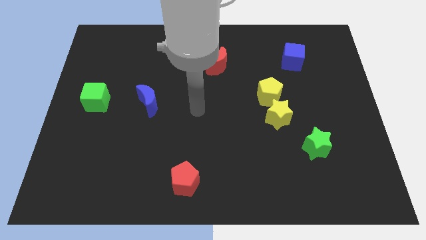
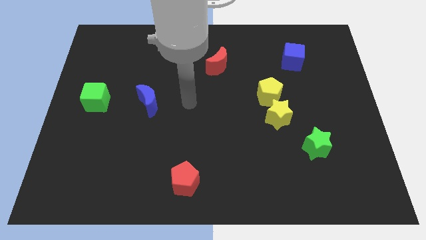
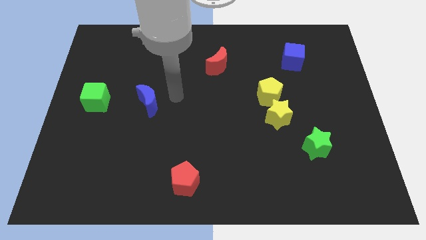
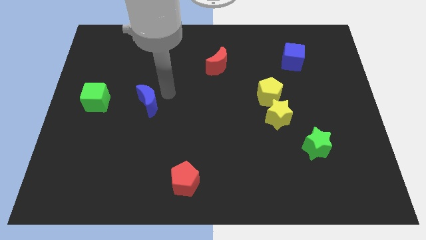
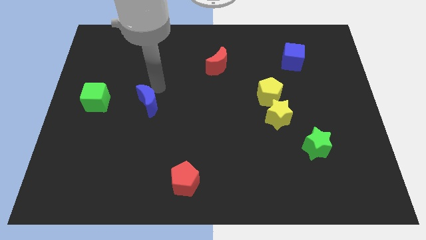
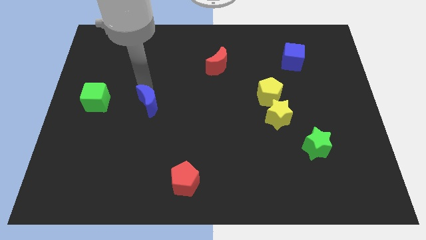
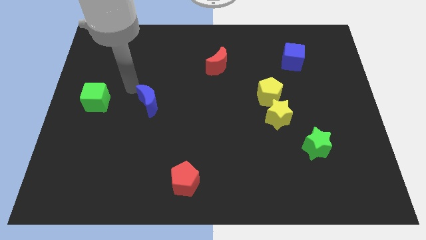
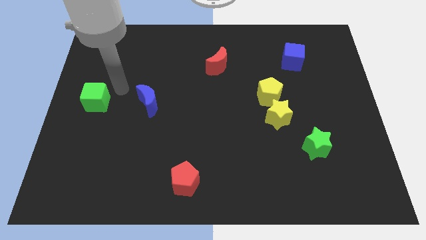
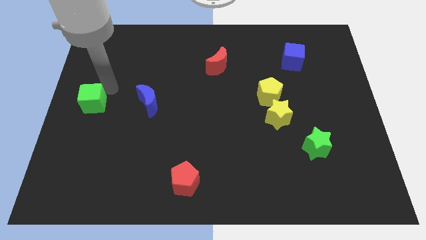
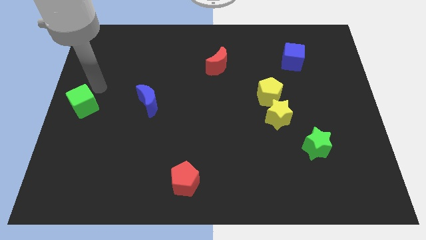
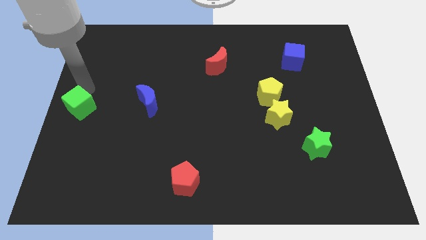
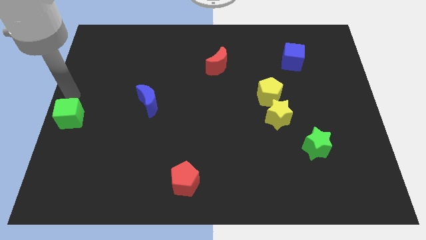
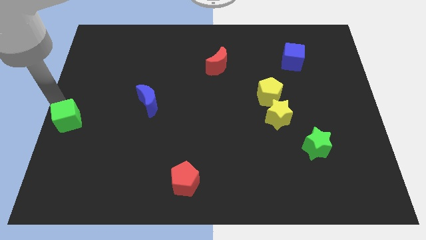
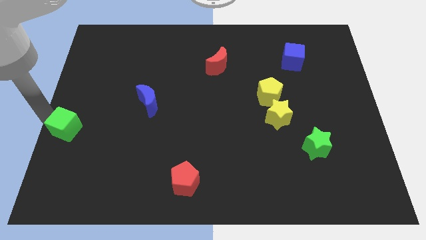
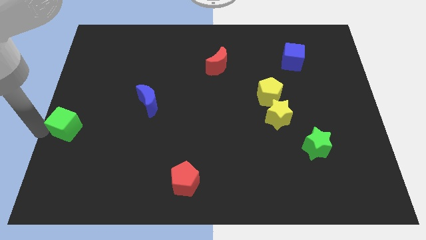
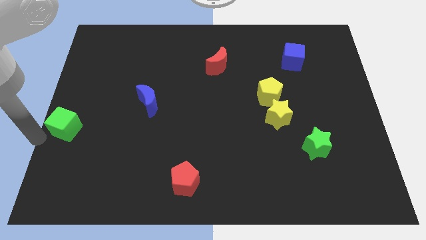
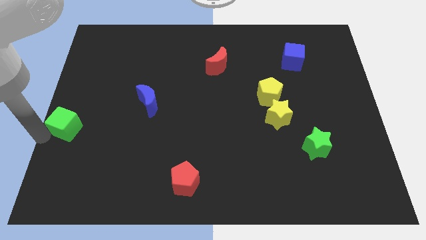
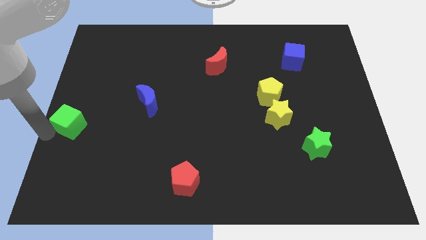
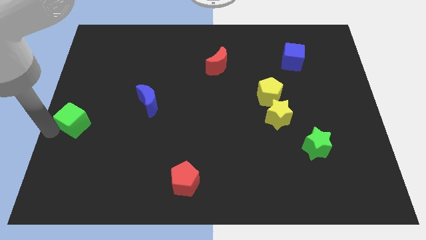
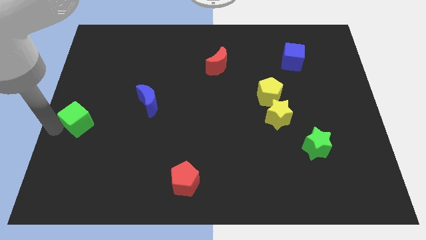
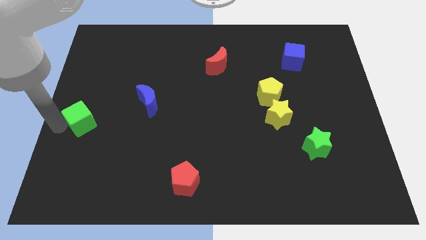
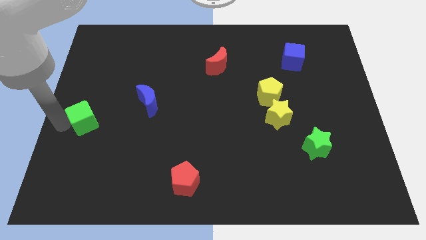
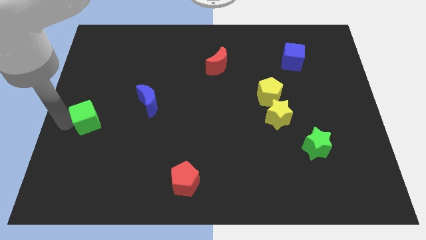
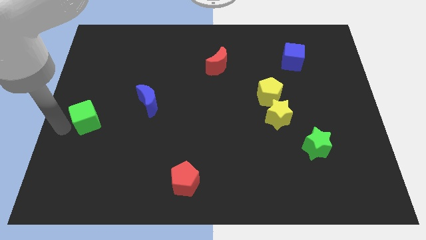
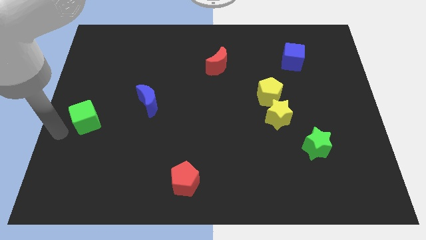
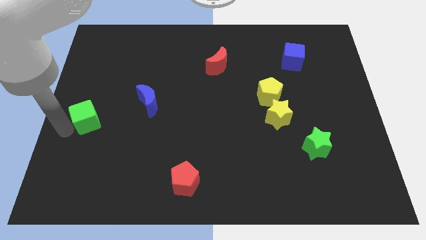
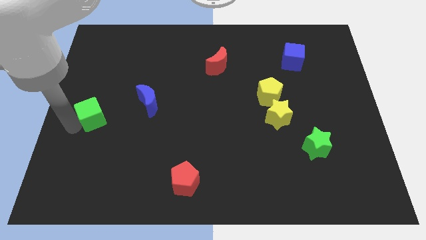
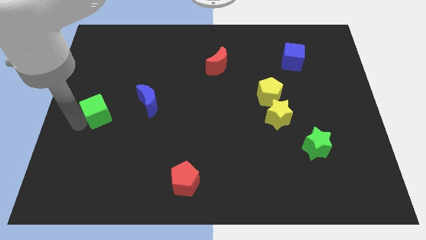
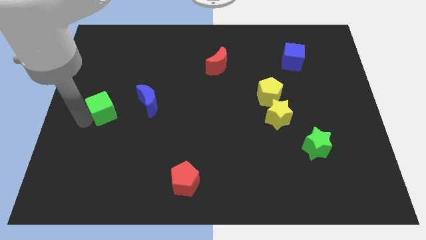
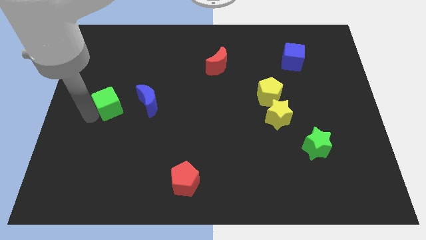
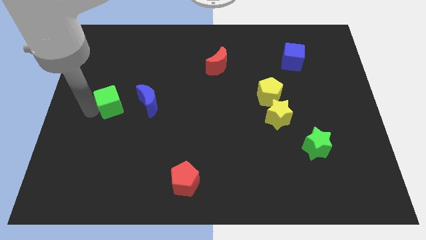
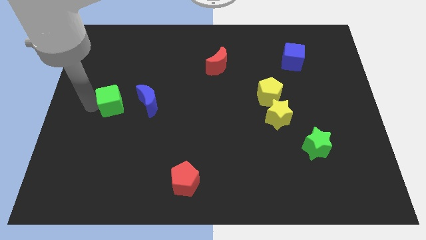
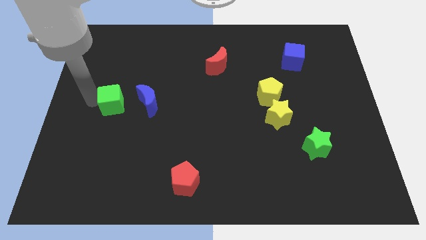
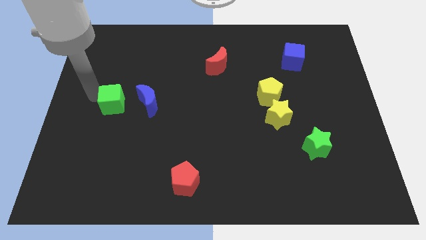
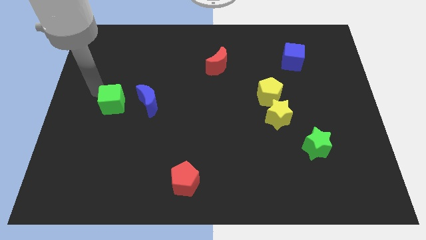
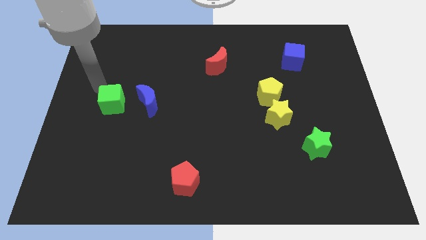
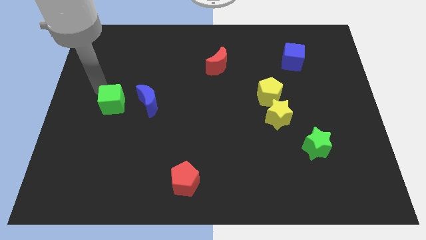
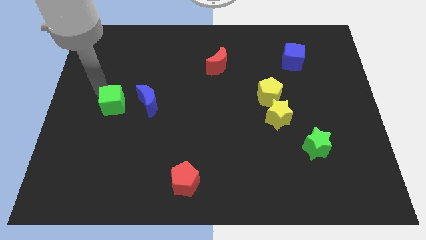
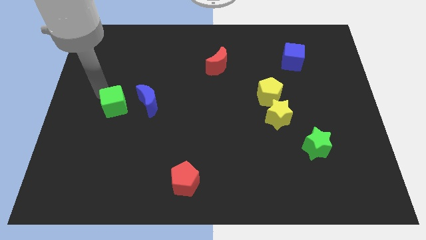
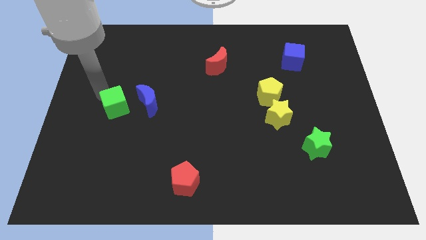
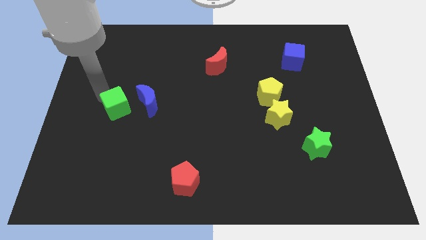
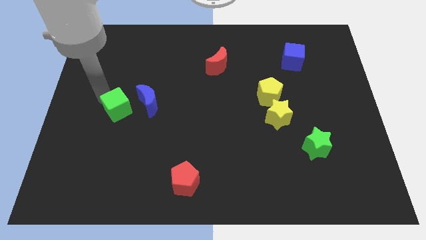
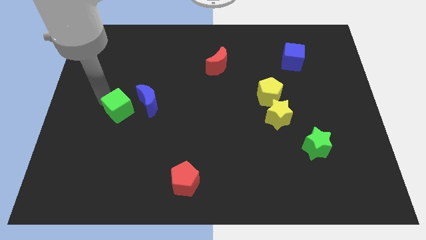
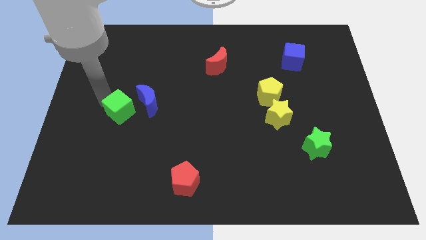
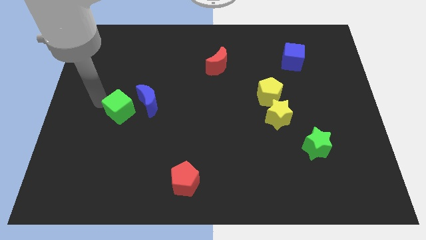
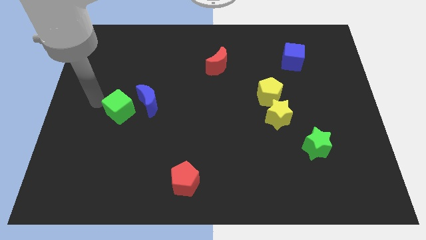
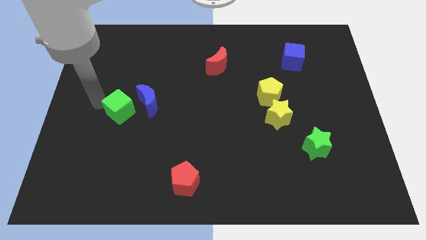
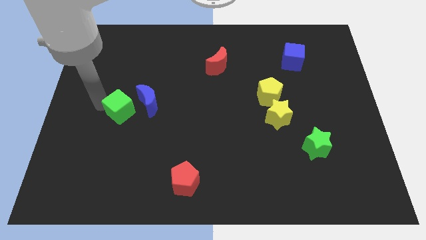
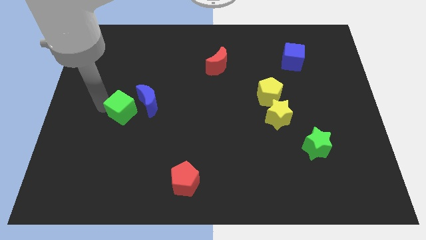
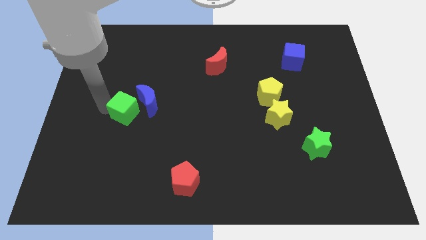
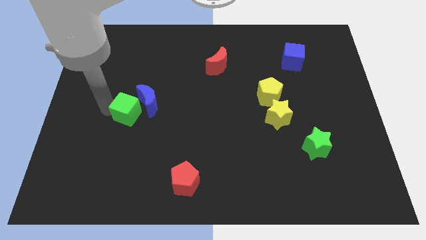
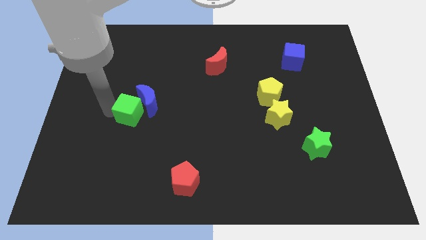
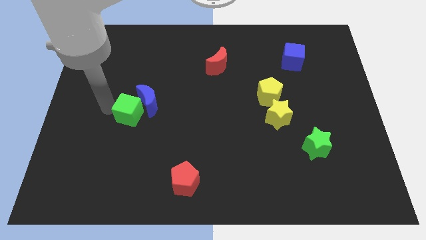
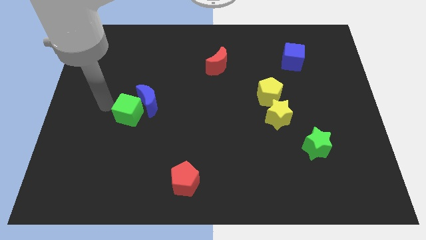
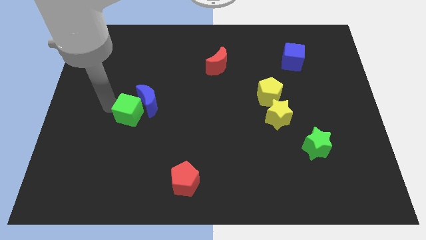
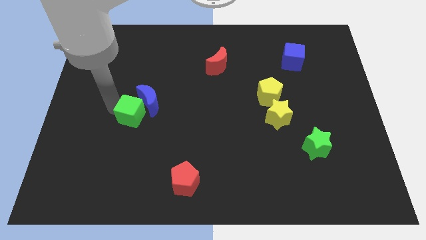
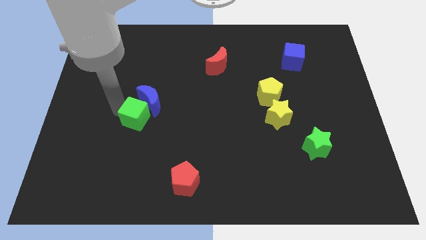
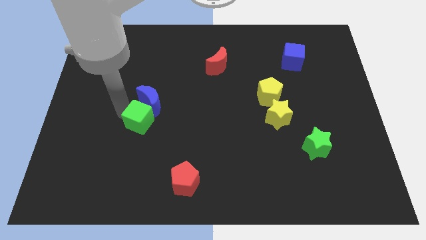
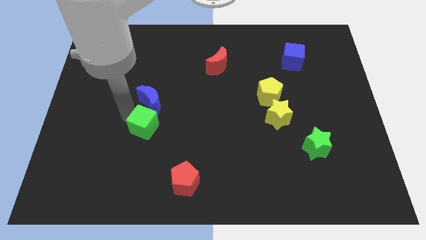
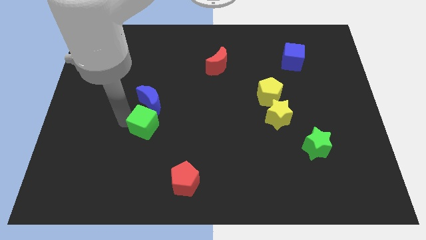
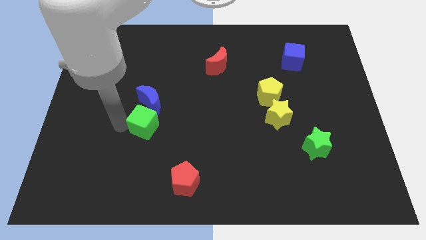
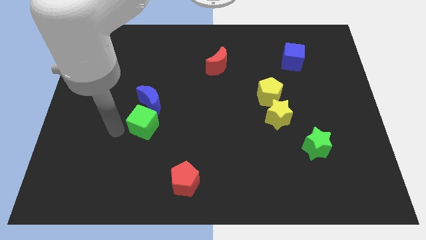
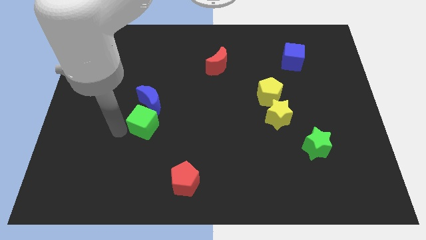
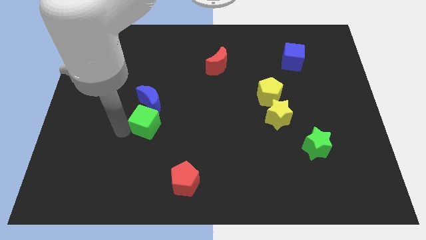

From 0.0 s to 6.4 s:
slide the green cube to the bottom right of the blue moon

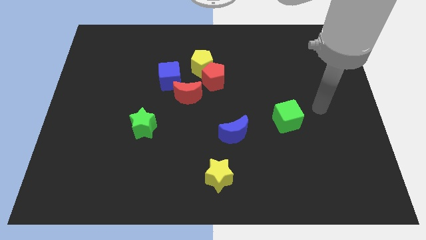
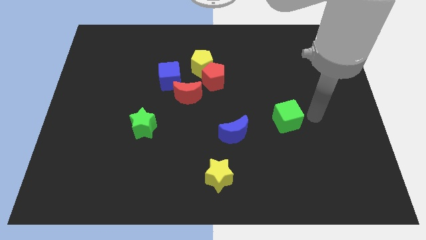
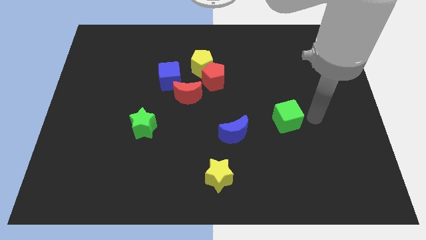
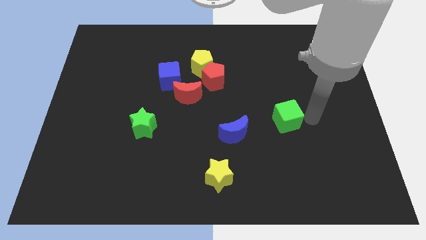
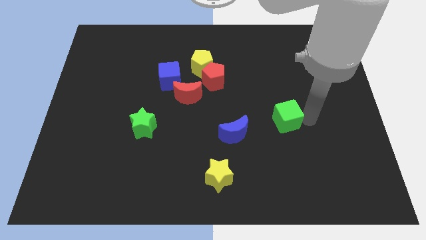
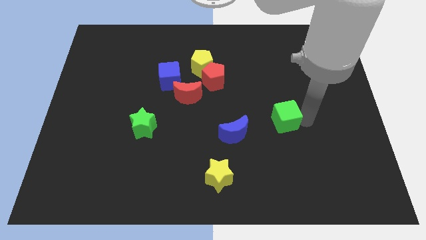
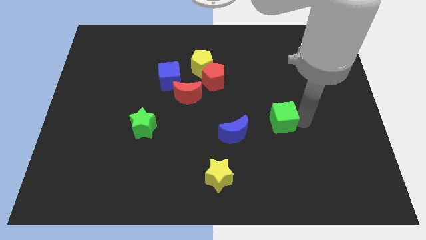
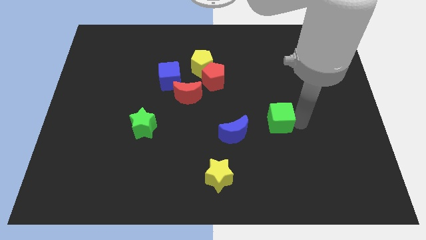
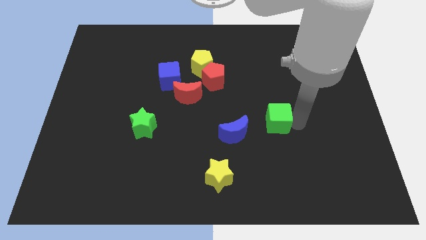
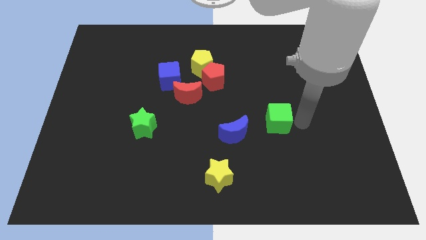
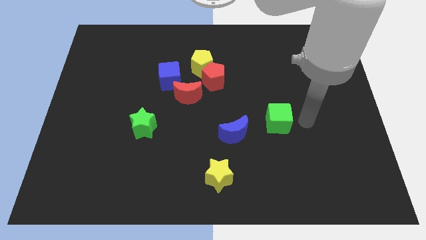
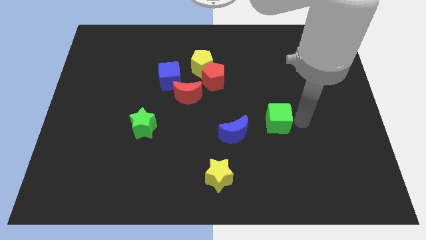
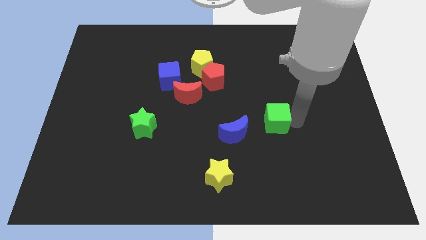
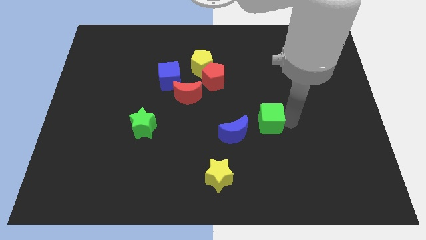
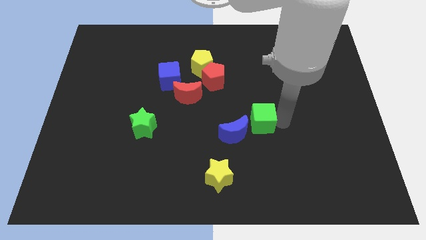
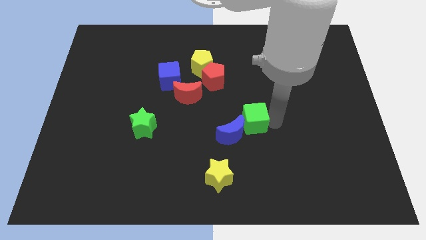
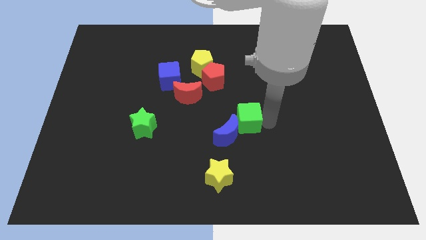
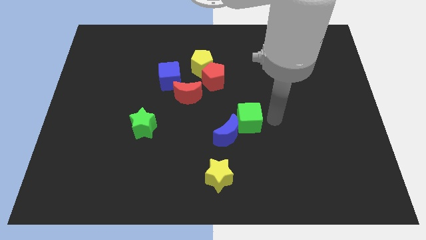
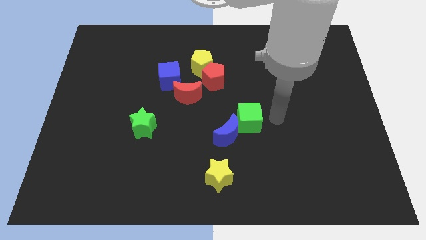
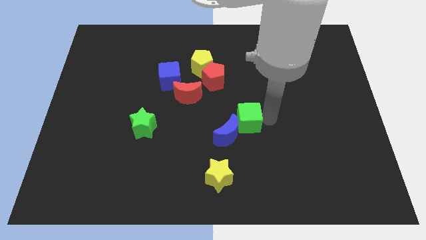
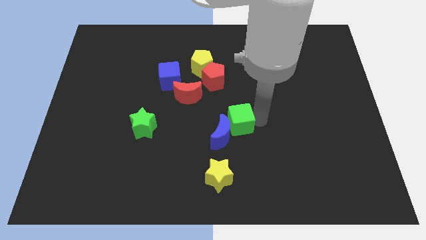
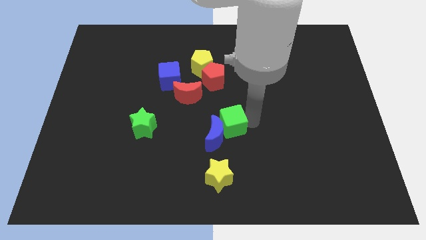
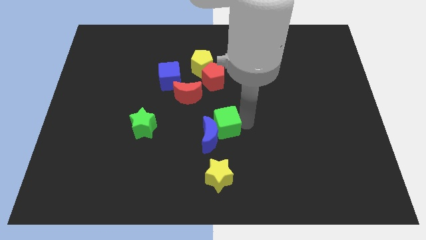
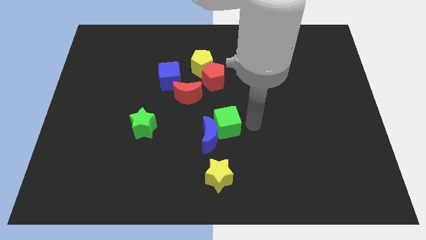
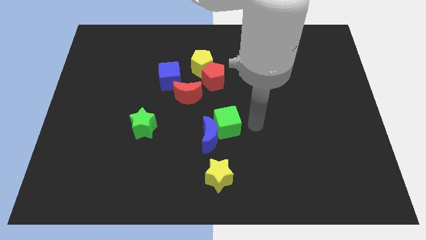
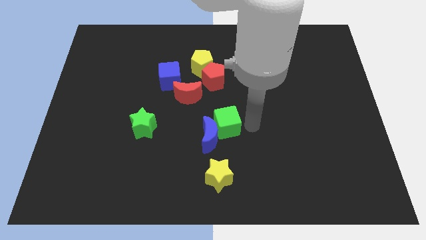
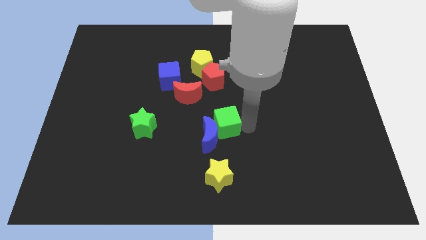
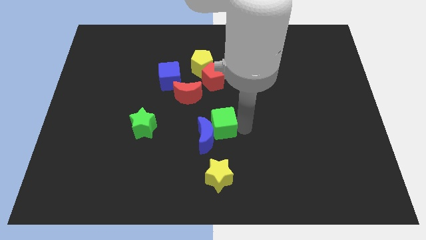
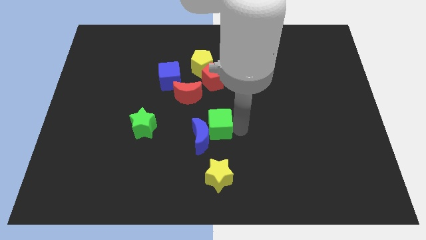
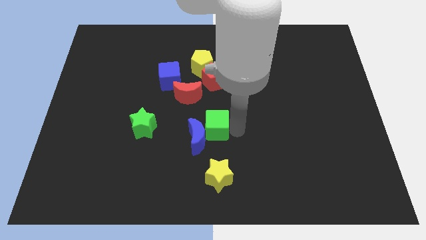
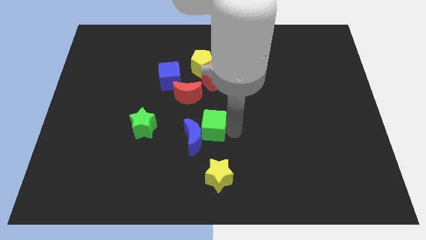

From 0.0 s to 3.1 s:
slide the green cube to the right side of the green star
